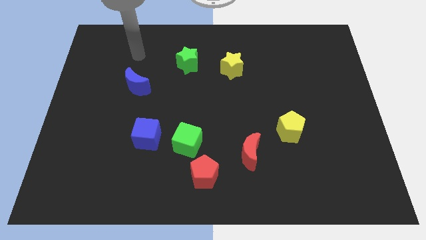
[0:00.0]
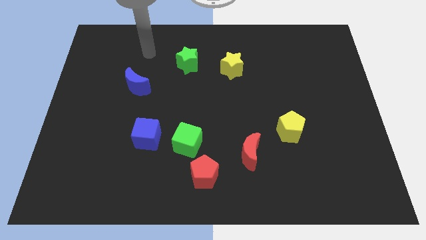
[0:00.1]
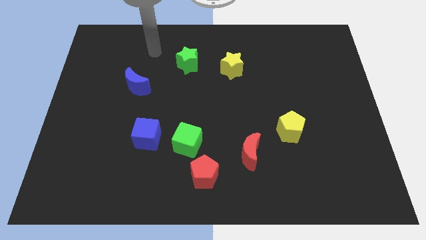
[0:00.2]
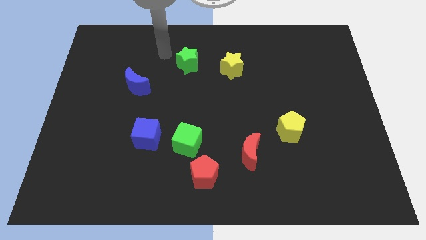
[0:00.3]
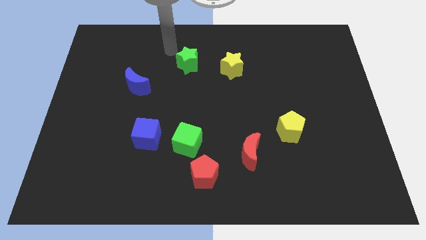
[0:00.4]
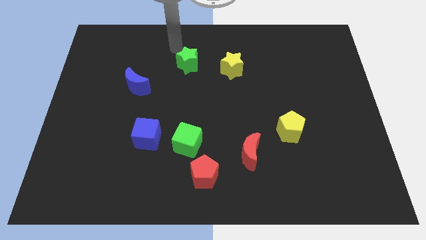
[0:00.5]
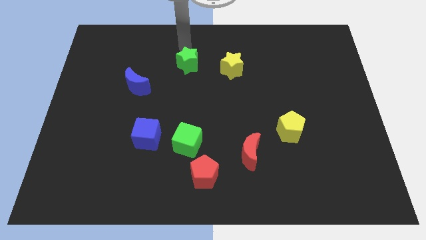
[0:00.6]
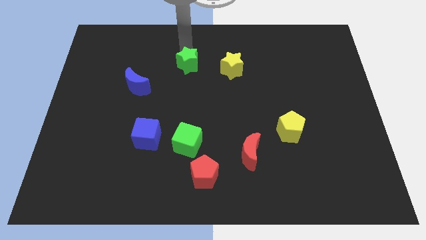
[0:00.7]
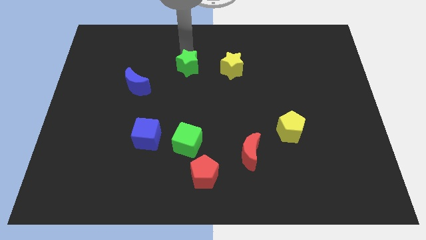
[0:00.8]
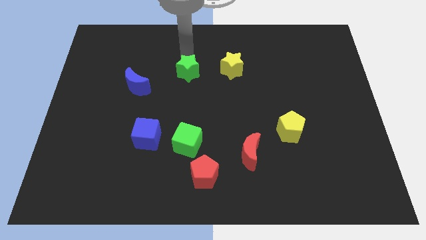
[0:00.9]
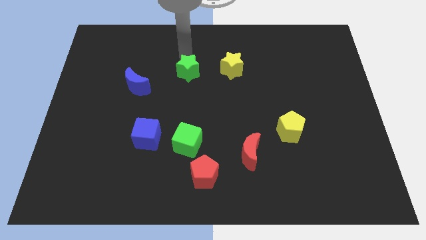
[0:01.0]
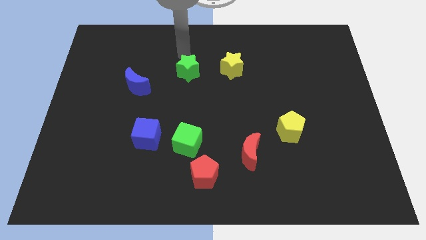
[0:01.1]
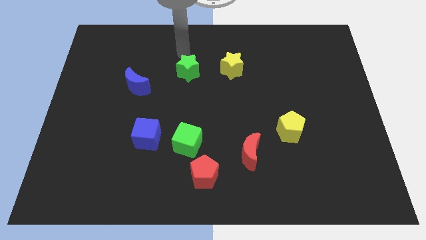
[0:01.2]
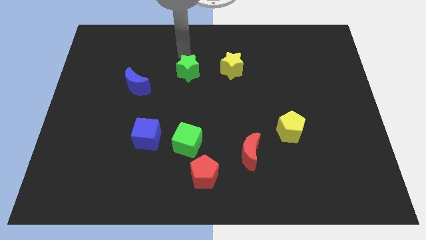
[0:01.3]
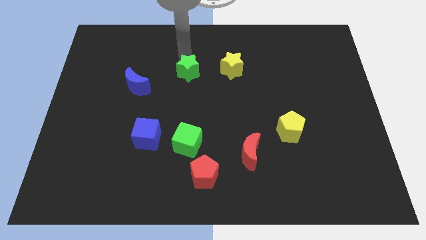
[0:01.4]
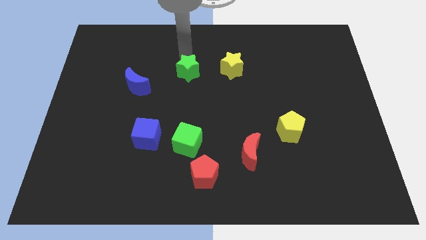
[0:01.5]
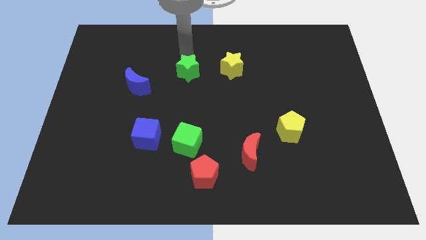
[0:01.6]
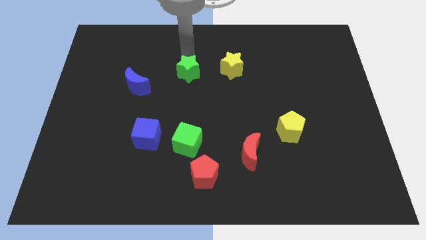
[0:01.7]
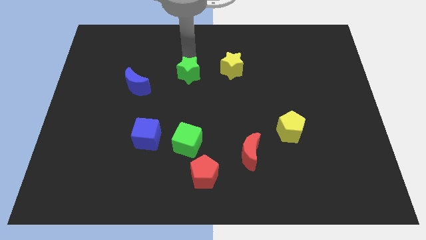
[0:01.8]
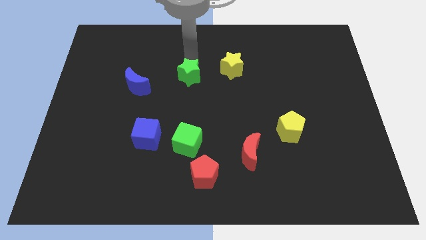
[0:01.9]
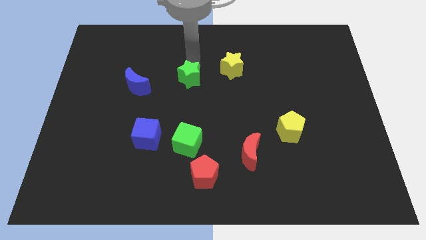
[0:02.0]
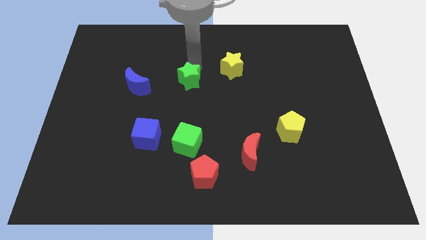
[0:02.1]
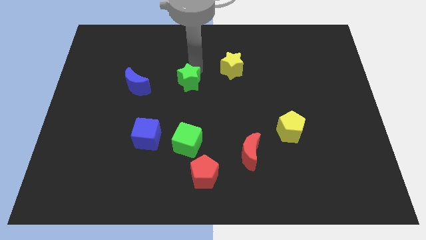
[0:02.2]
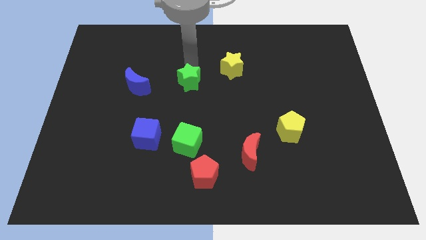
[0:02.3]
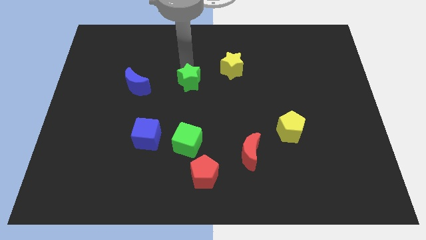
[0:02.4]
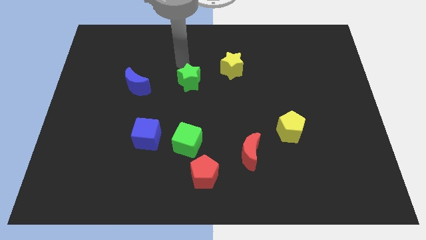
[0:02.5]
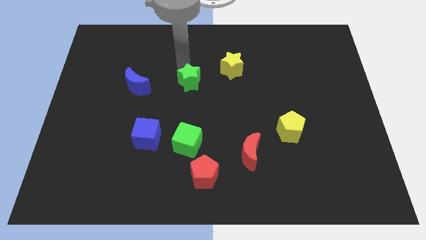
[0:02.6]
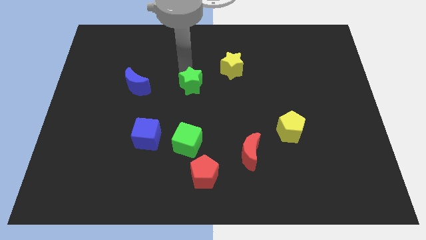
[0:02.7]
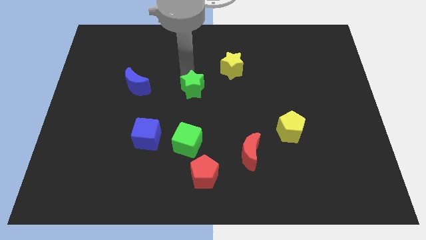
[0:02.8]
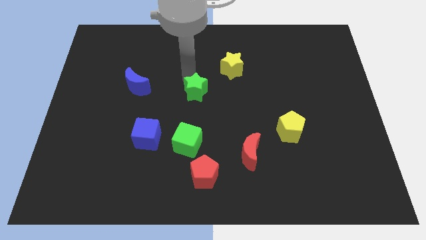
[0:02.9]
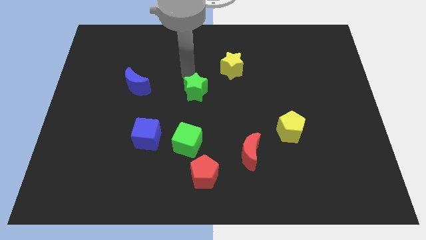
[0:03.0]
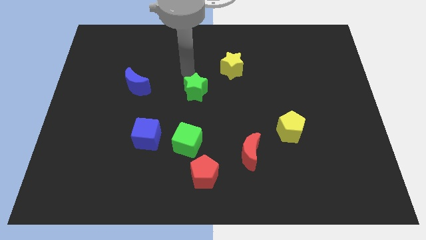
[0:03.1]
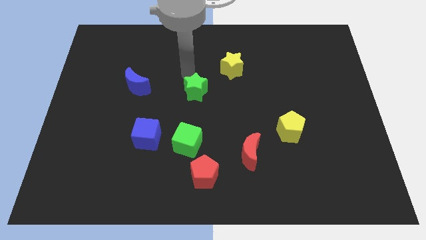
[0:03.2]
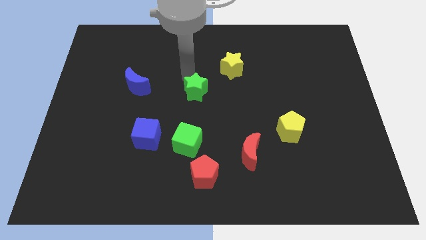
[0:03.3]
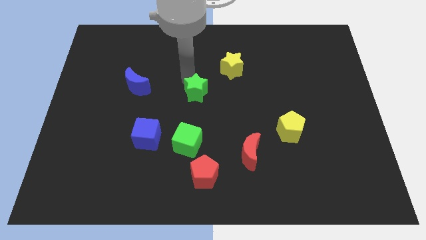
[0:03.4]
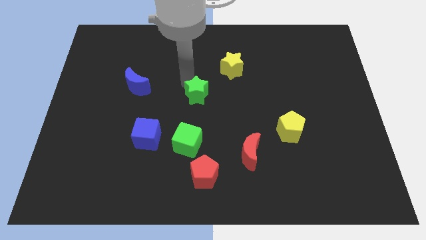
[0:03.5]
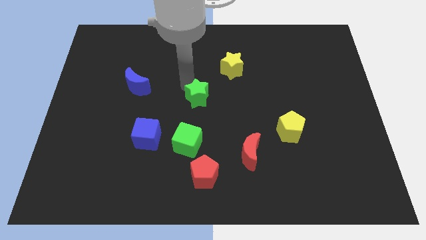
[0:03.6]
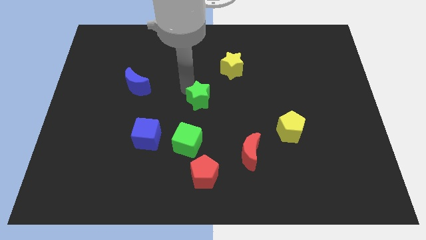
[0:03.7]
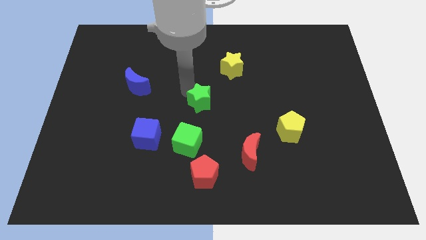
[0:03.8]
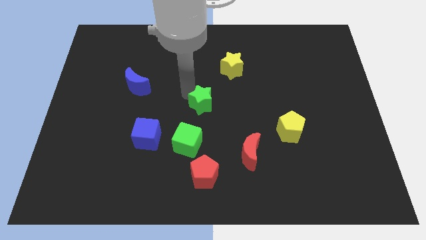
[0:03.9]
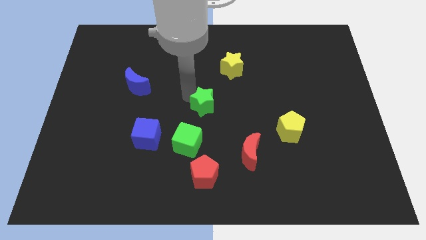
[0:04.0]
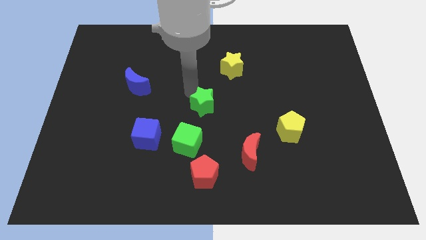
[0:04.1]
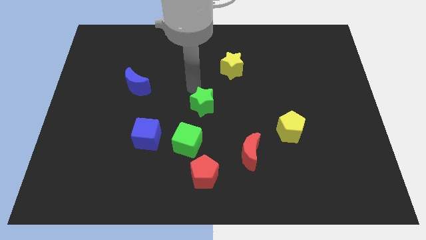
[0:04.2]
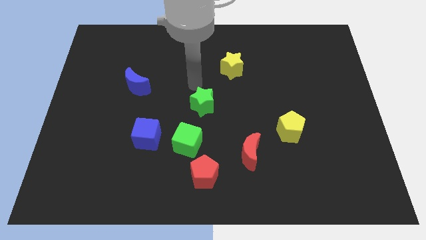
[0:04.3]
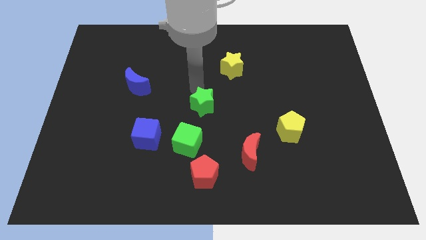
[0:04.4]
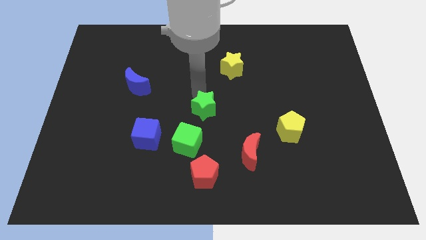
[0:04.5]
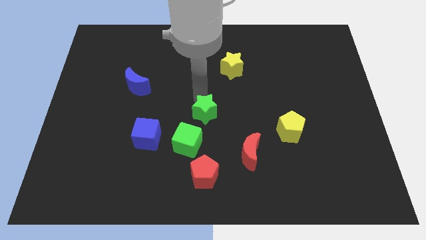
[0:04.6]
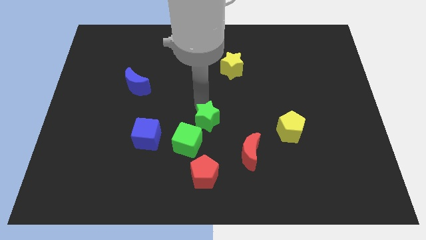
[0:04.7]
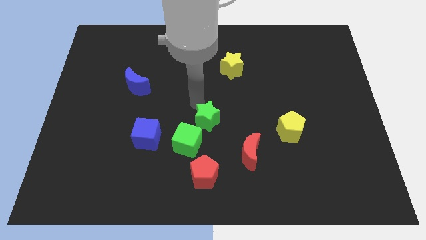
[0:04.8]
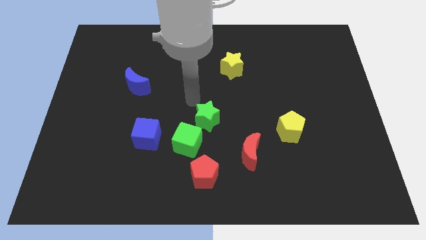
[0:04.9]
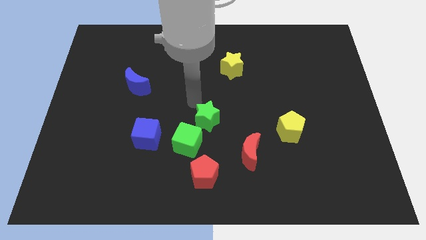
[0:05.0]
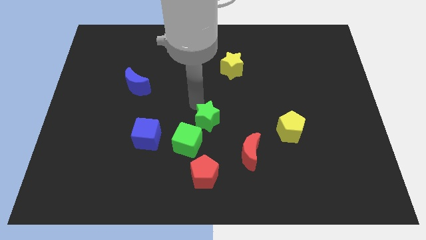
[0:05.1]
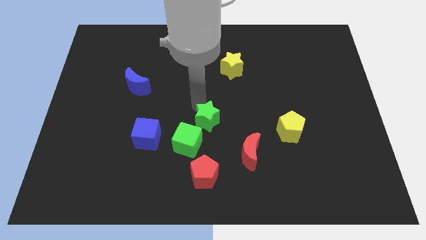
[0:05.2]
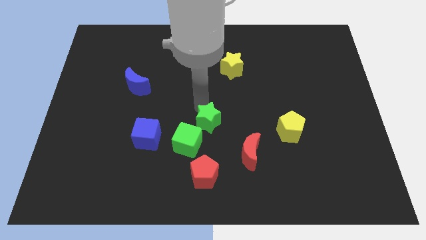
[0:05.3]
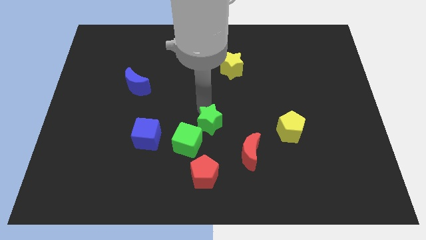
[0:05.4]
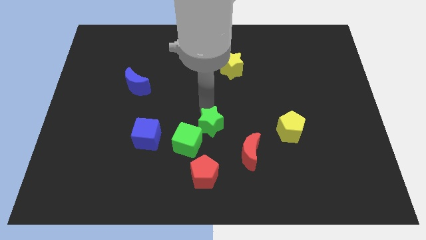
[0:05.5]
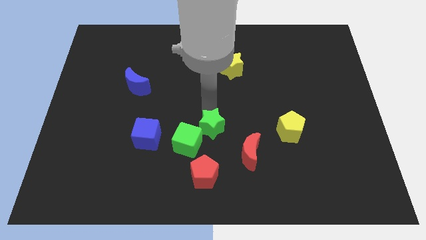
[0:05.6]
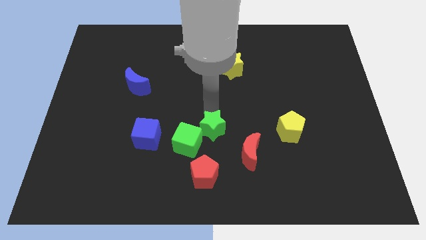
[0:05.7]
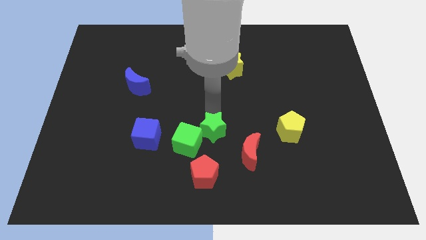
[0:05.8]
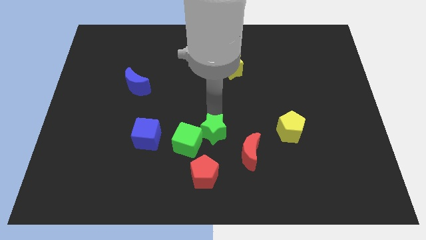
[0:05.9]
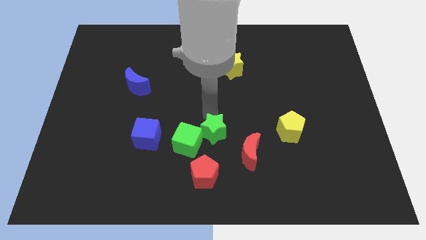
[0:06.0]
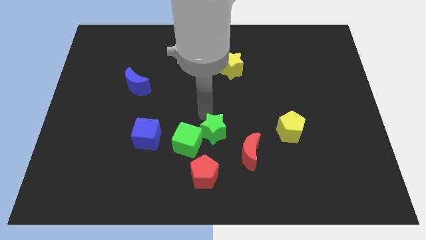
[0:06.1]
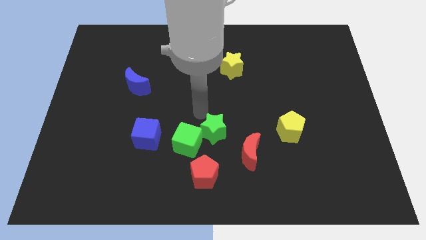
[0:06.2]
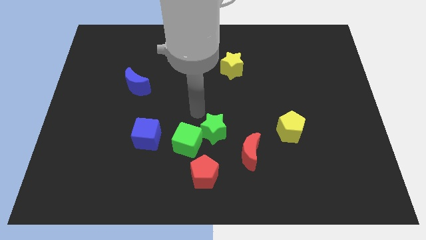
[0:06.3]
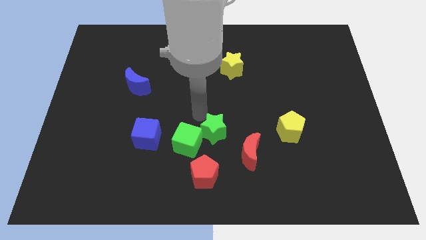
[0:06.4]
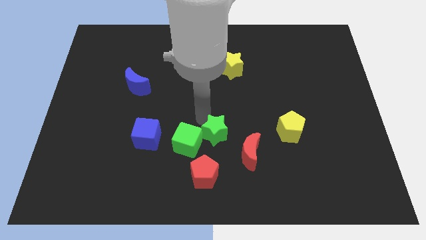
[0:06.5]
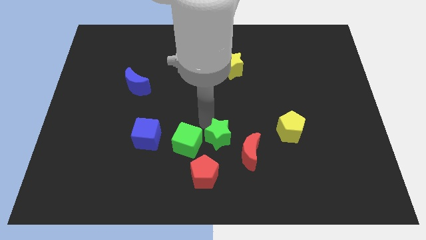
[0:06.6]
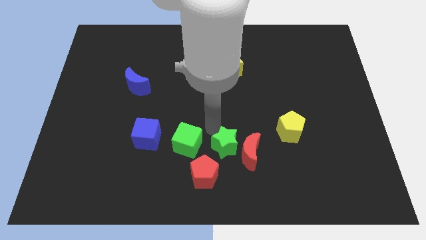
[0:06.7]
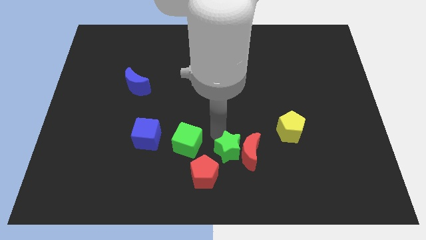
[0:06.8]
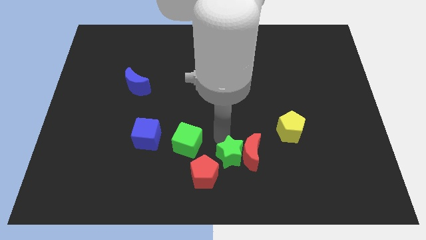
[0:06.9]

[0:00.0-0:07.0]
move the green star to the bottom side

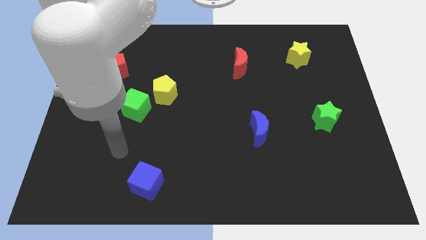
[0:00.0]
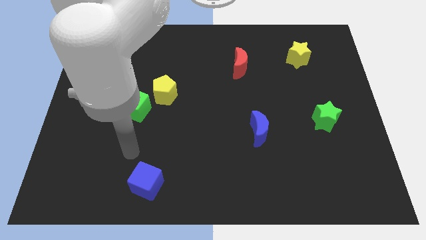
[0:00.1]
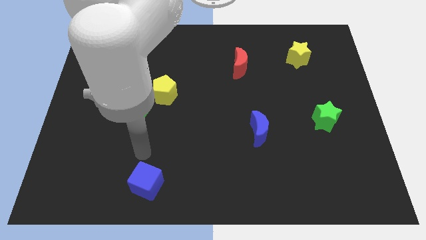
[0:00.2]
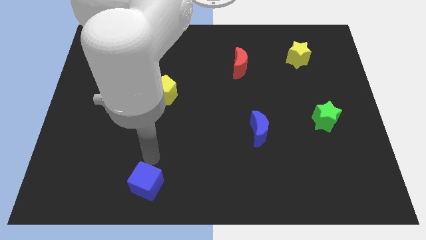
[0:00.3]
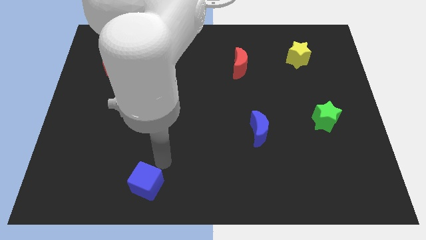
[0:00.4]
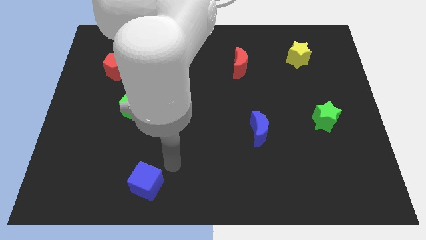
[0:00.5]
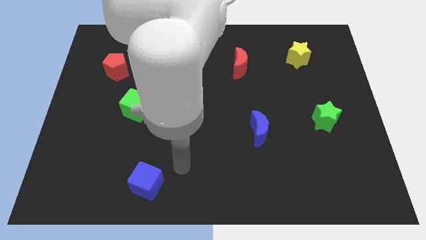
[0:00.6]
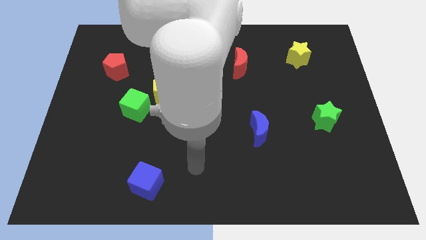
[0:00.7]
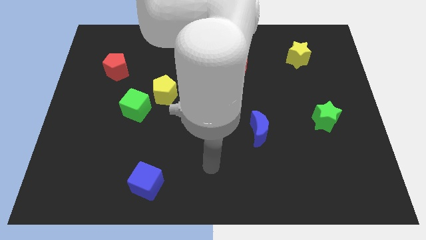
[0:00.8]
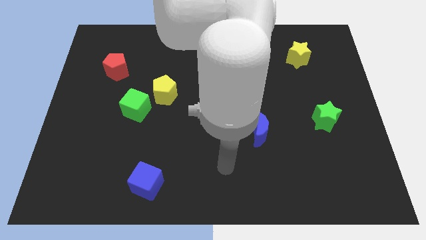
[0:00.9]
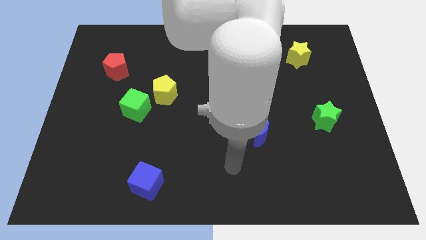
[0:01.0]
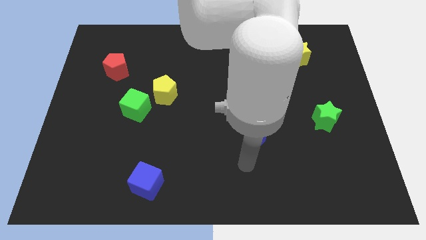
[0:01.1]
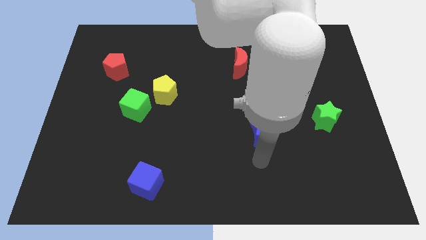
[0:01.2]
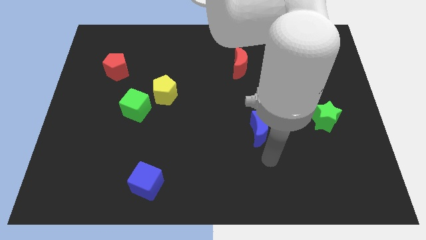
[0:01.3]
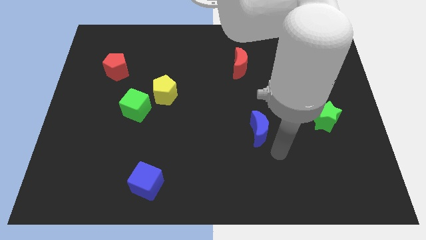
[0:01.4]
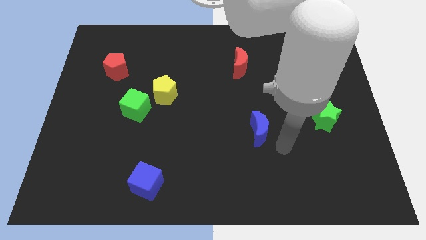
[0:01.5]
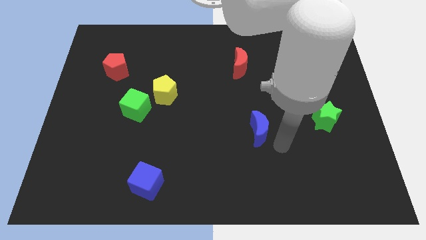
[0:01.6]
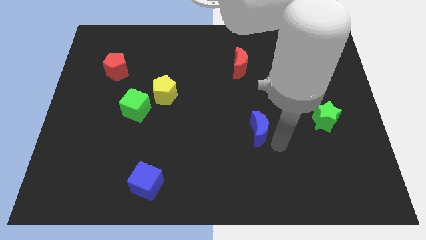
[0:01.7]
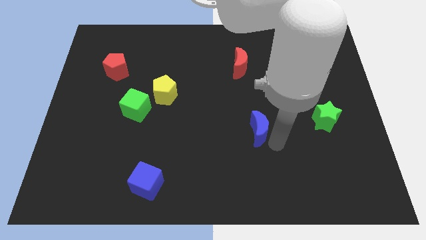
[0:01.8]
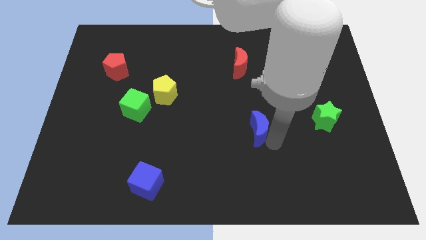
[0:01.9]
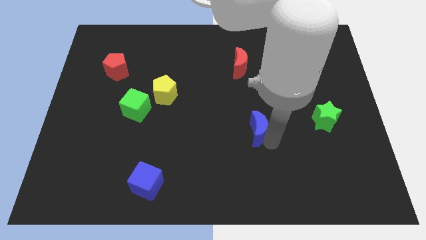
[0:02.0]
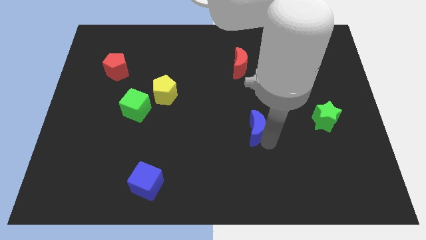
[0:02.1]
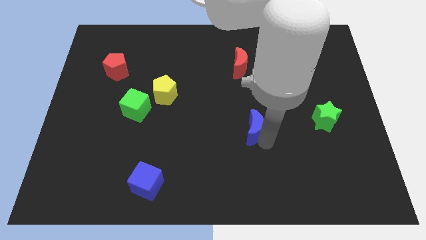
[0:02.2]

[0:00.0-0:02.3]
move the blue moon to the middle of the board
